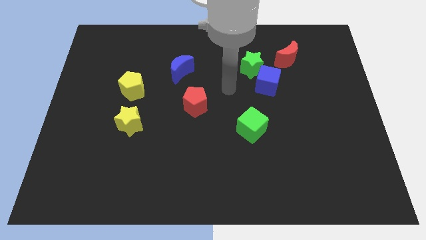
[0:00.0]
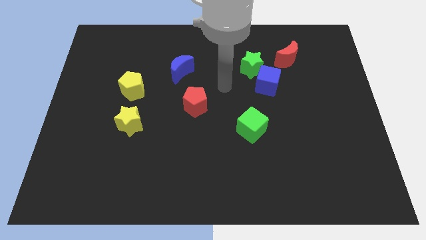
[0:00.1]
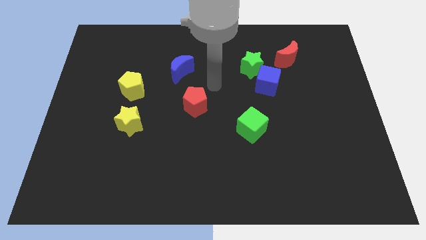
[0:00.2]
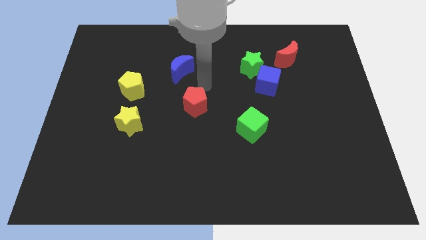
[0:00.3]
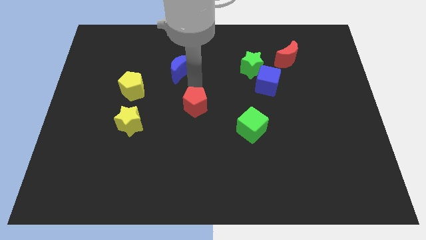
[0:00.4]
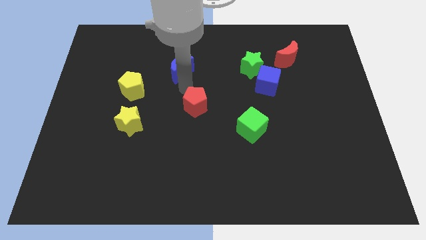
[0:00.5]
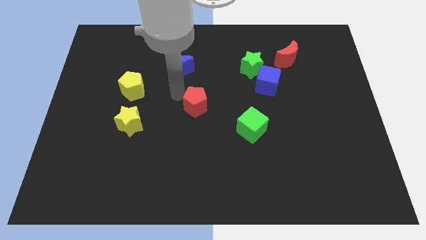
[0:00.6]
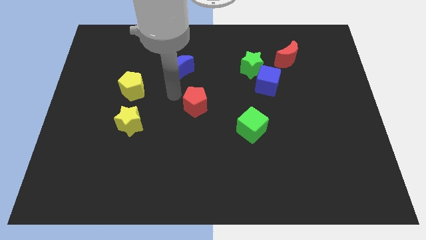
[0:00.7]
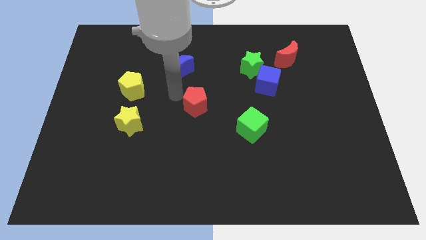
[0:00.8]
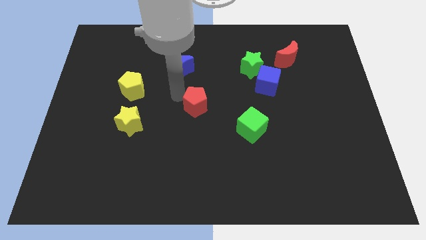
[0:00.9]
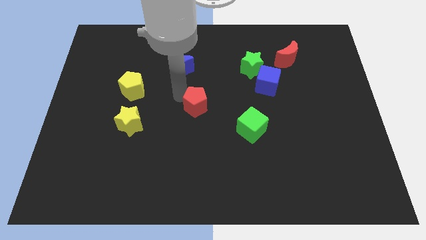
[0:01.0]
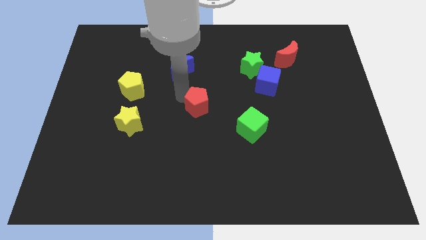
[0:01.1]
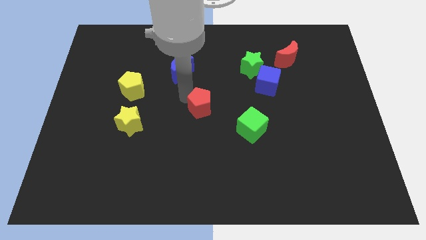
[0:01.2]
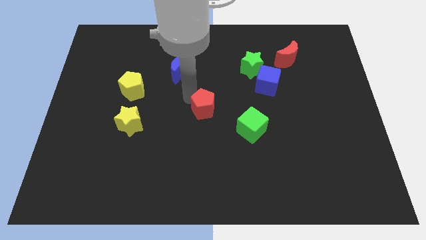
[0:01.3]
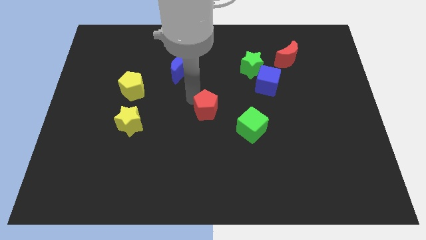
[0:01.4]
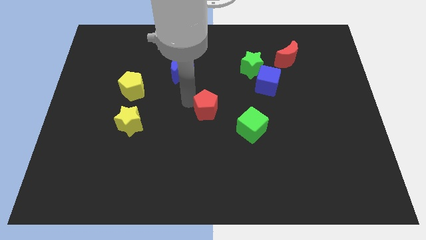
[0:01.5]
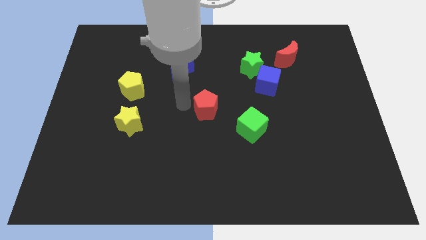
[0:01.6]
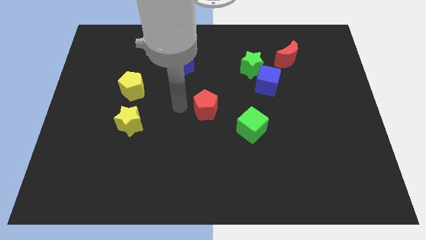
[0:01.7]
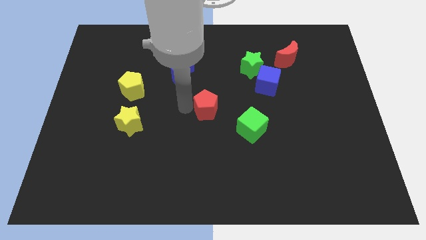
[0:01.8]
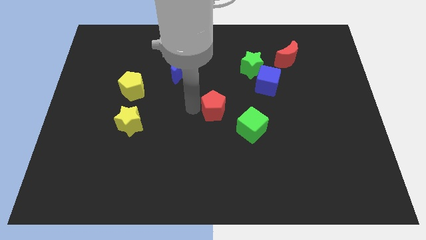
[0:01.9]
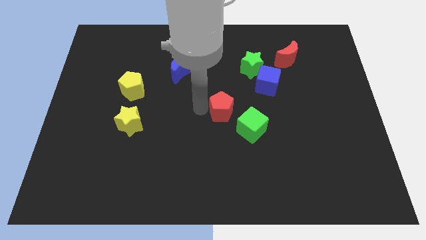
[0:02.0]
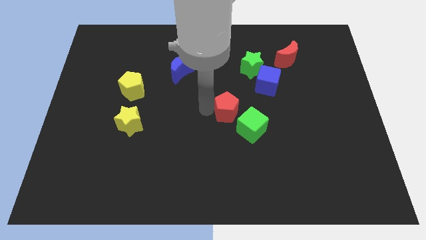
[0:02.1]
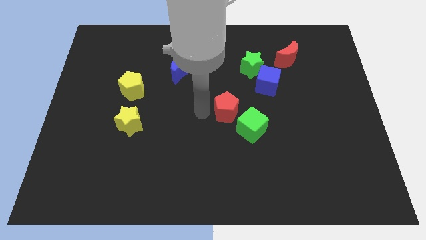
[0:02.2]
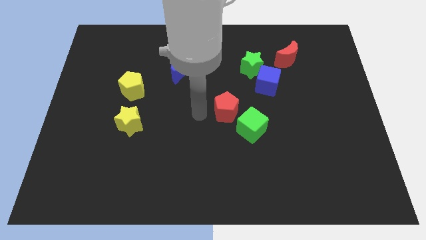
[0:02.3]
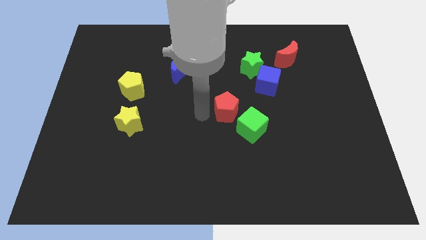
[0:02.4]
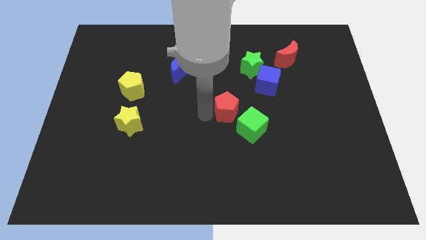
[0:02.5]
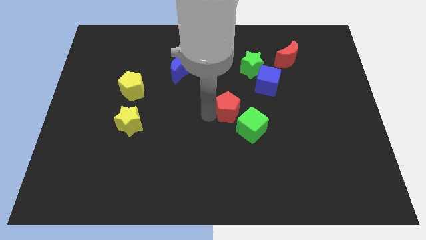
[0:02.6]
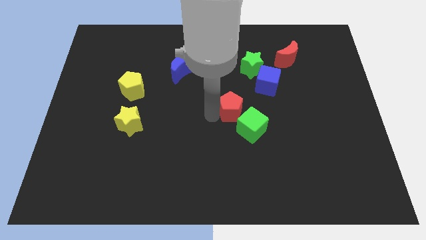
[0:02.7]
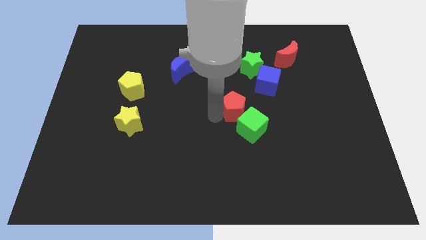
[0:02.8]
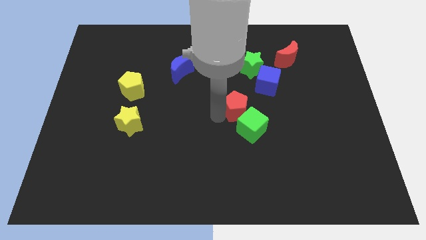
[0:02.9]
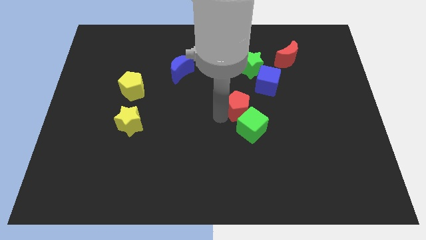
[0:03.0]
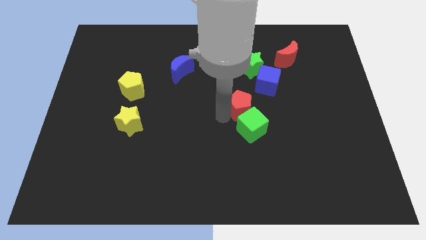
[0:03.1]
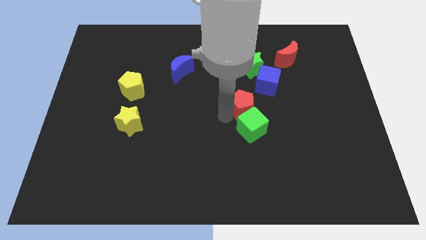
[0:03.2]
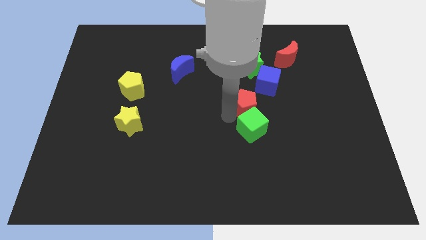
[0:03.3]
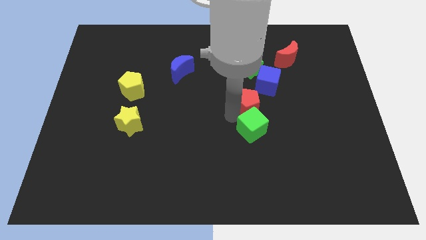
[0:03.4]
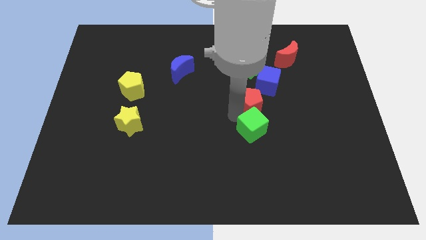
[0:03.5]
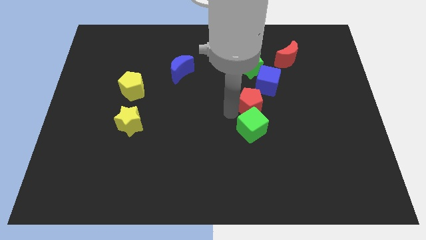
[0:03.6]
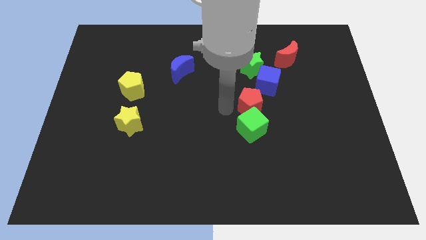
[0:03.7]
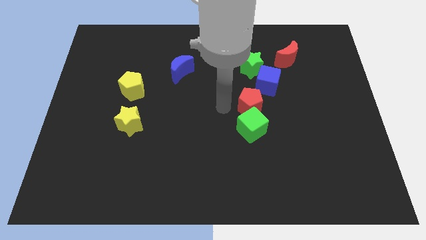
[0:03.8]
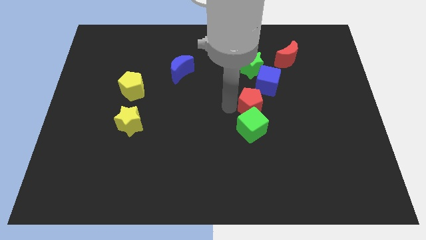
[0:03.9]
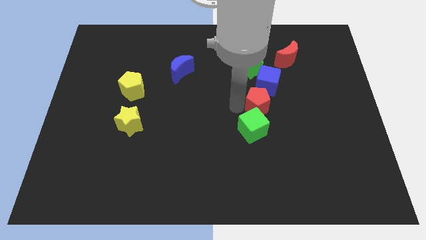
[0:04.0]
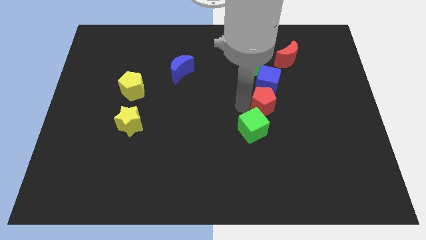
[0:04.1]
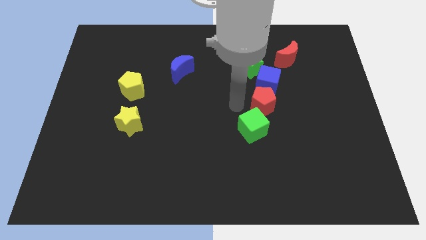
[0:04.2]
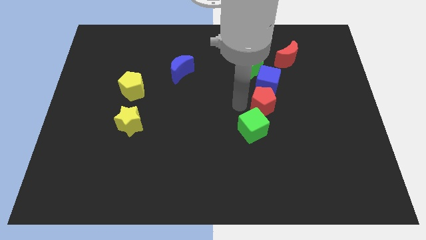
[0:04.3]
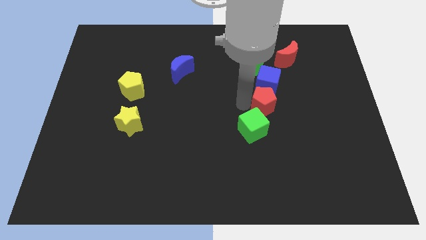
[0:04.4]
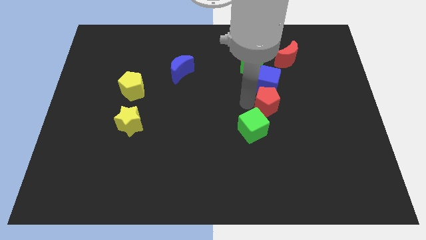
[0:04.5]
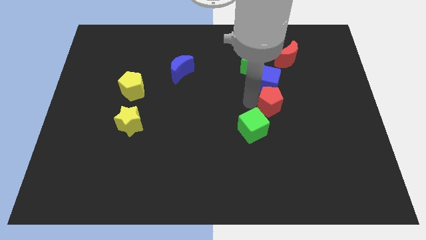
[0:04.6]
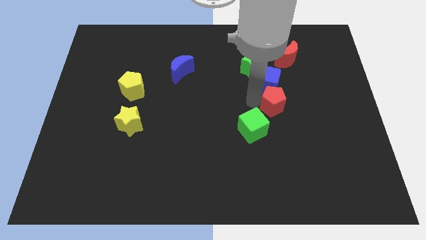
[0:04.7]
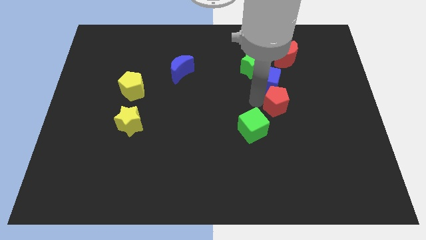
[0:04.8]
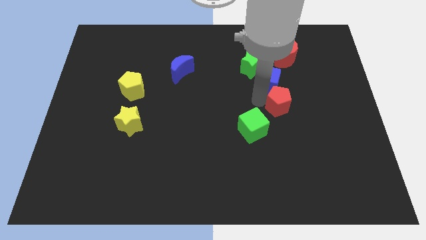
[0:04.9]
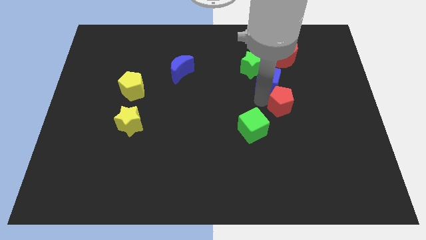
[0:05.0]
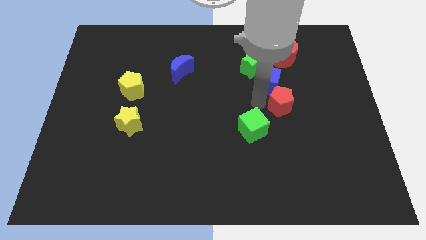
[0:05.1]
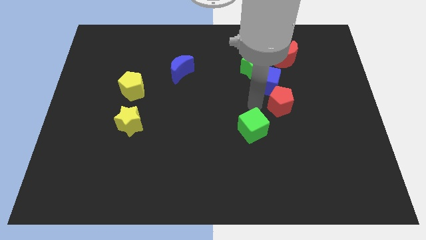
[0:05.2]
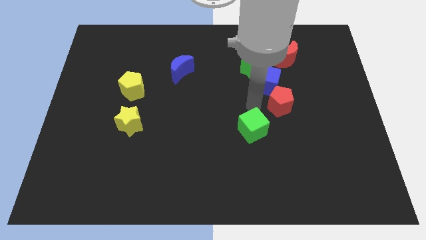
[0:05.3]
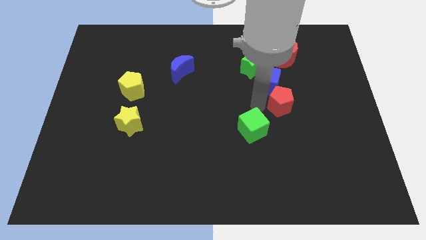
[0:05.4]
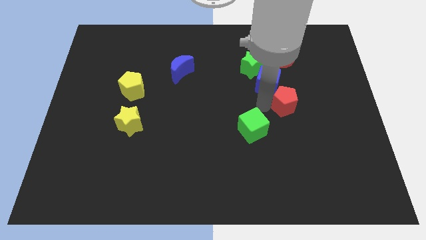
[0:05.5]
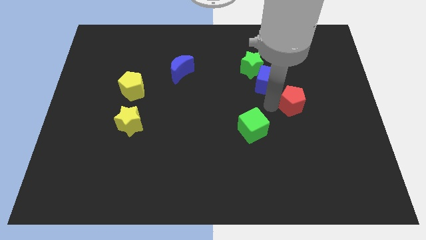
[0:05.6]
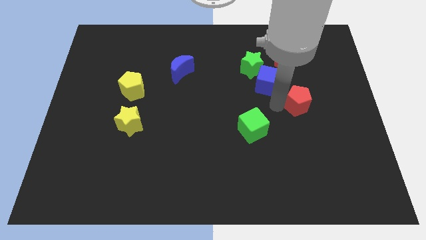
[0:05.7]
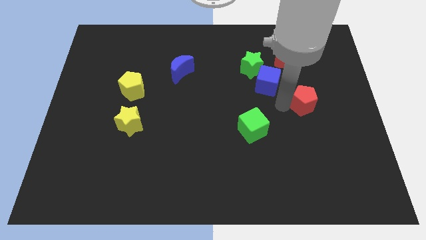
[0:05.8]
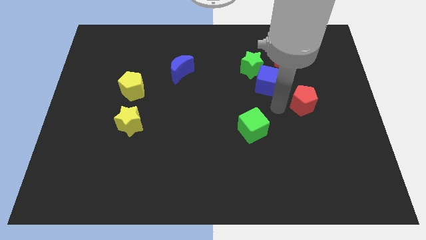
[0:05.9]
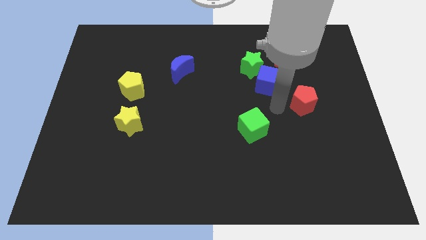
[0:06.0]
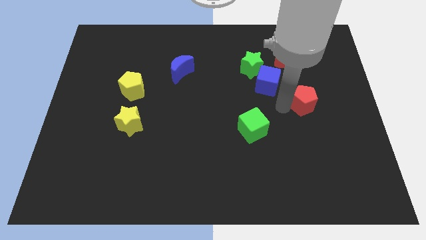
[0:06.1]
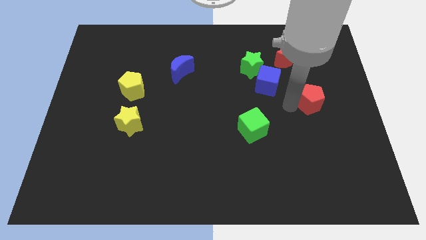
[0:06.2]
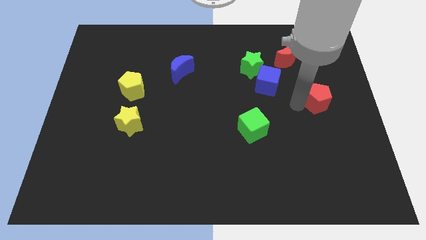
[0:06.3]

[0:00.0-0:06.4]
push the red pentagon to the right side of the board

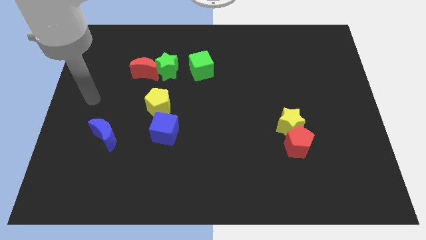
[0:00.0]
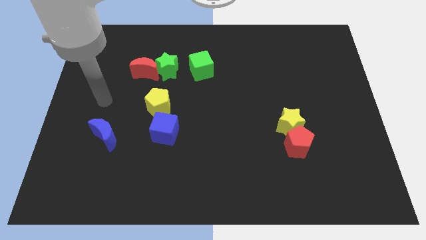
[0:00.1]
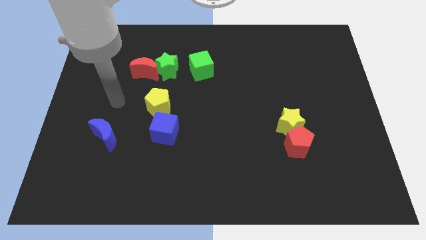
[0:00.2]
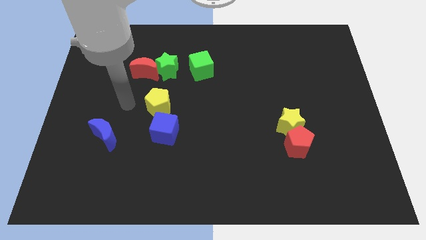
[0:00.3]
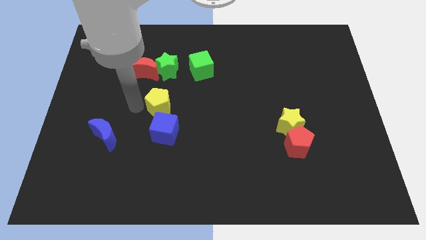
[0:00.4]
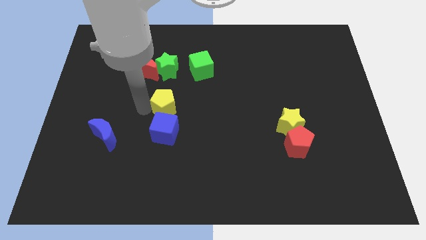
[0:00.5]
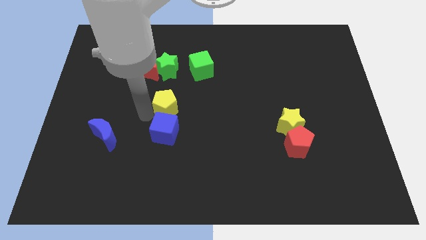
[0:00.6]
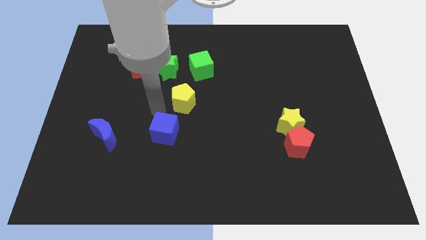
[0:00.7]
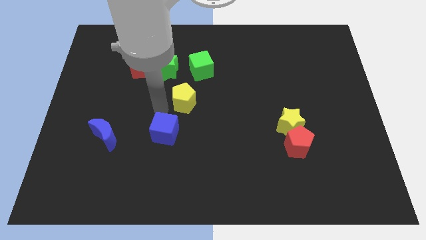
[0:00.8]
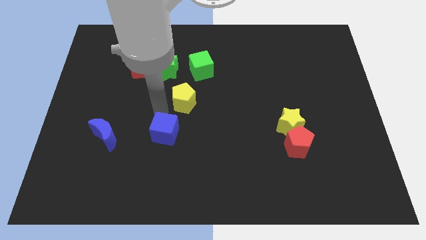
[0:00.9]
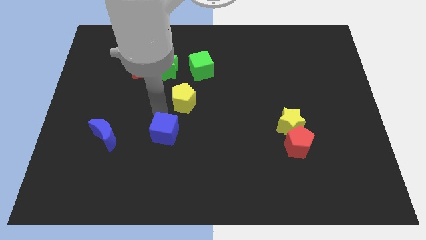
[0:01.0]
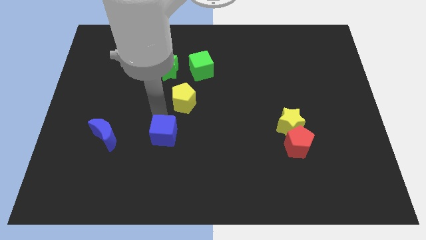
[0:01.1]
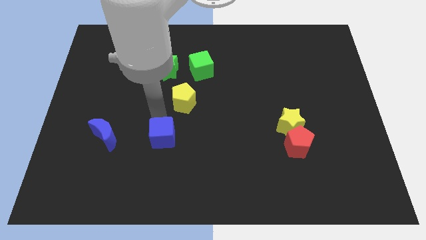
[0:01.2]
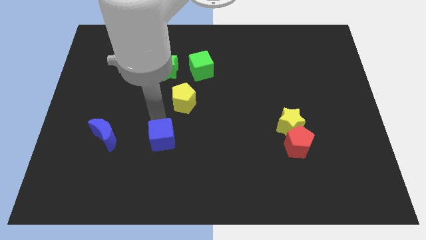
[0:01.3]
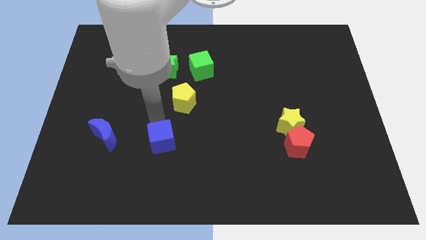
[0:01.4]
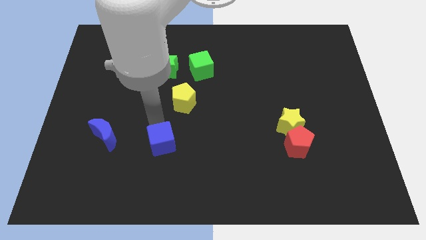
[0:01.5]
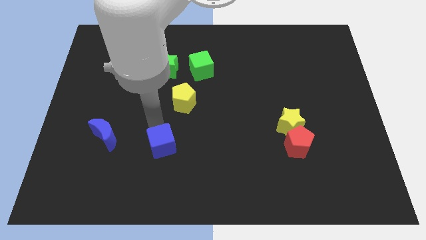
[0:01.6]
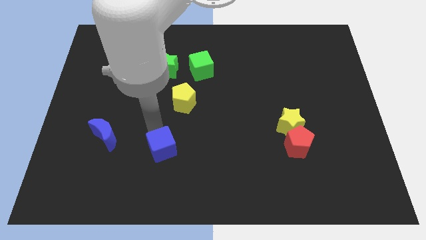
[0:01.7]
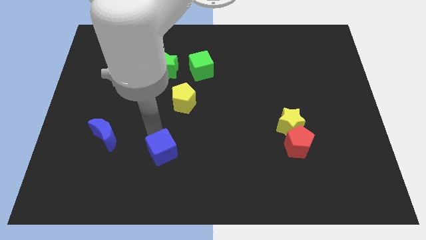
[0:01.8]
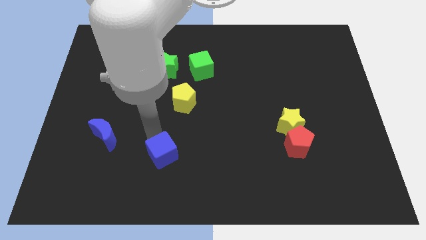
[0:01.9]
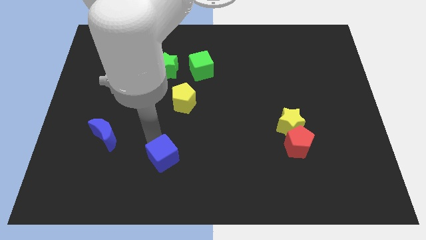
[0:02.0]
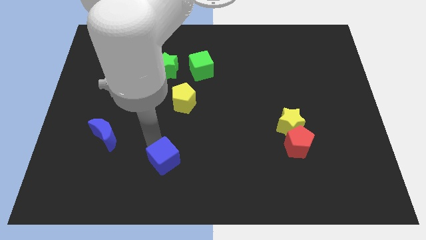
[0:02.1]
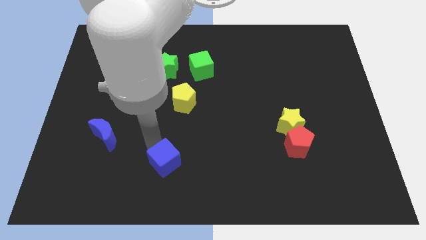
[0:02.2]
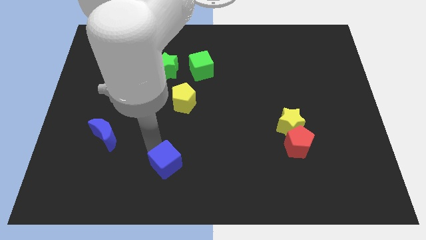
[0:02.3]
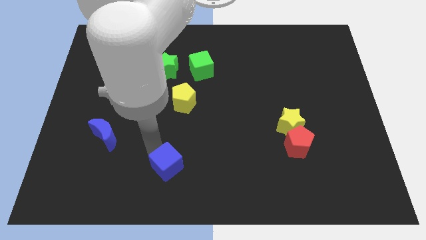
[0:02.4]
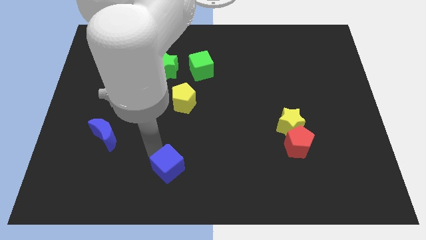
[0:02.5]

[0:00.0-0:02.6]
put the blue cube to the bottom
